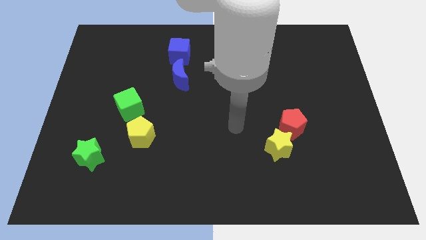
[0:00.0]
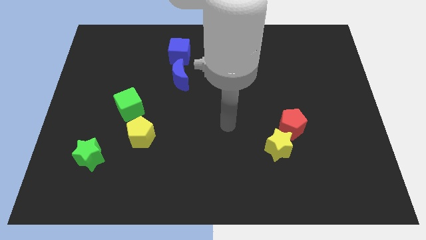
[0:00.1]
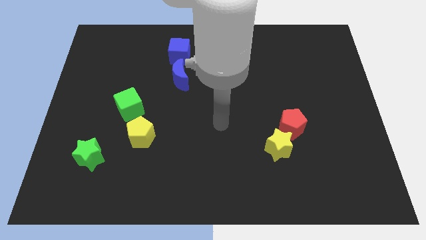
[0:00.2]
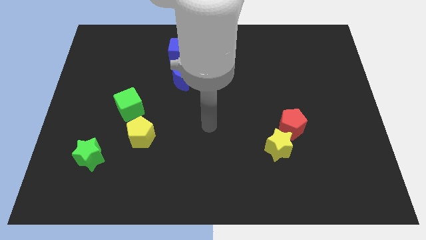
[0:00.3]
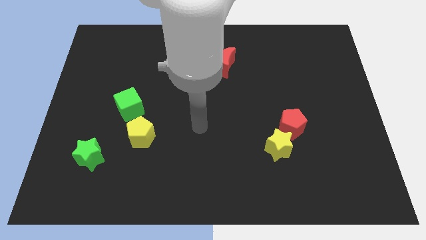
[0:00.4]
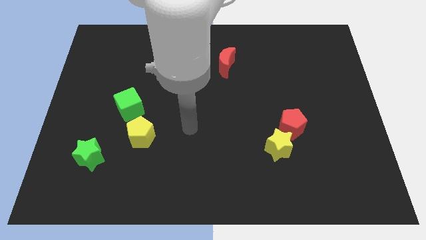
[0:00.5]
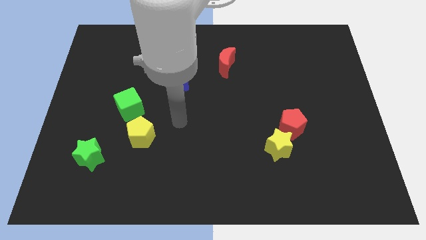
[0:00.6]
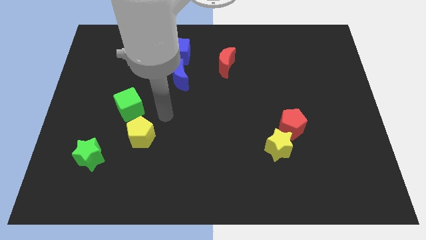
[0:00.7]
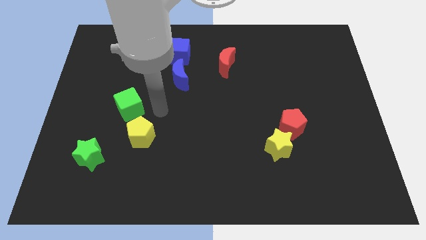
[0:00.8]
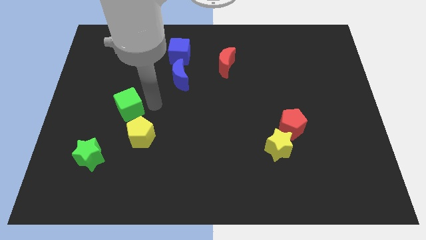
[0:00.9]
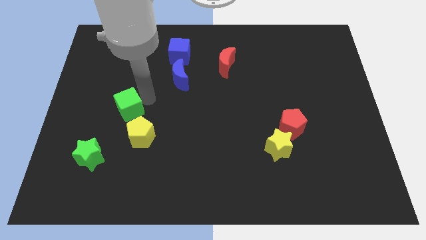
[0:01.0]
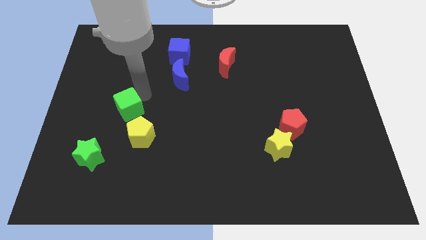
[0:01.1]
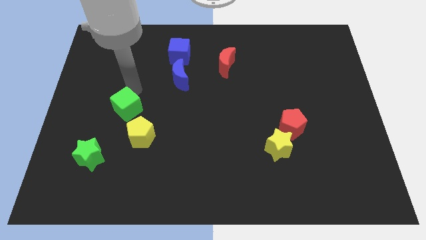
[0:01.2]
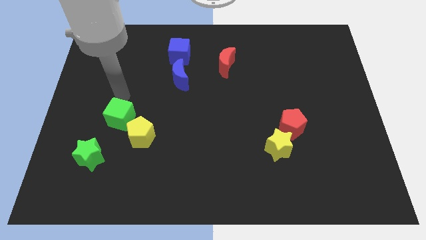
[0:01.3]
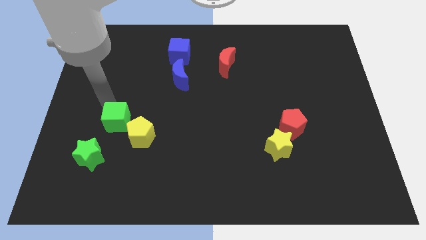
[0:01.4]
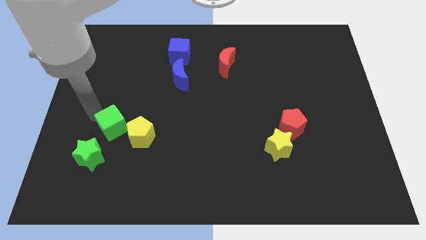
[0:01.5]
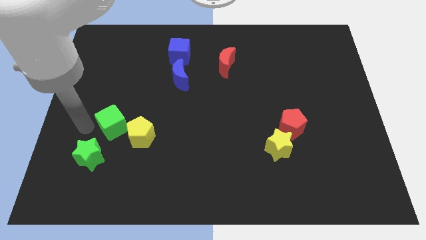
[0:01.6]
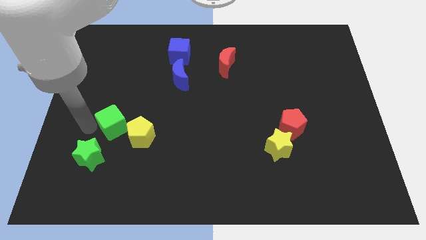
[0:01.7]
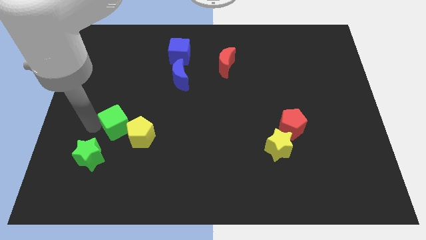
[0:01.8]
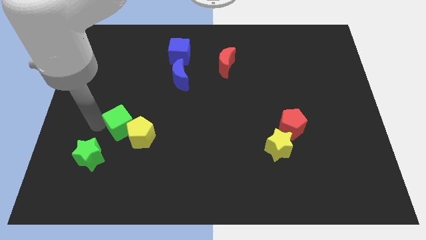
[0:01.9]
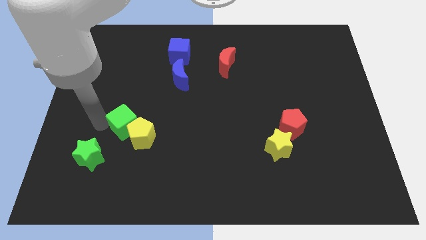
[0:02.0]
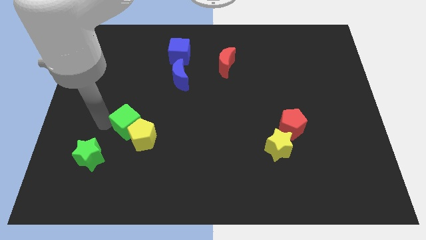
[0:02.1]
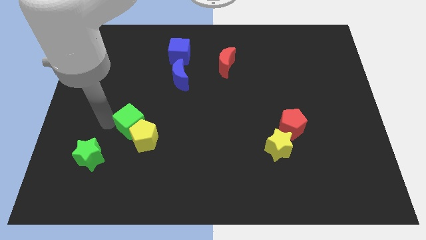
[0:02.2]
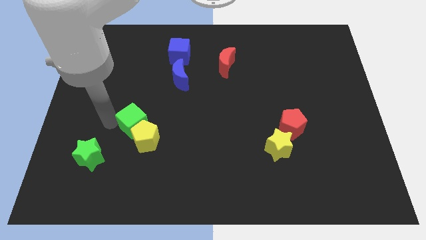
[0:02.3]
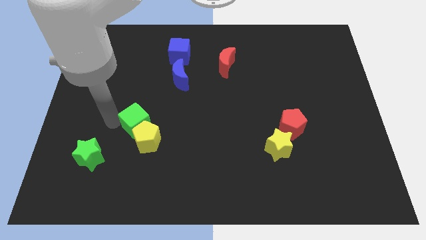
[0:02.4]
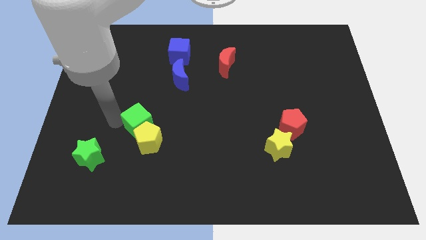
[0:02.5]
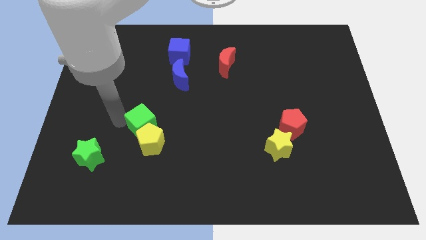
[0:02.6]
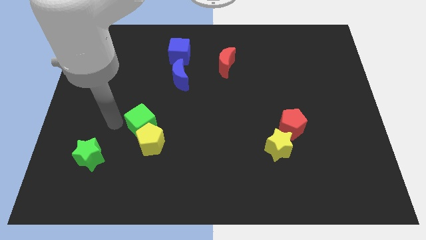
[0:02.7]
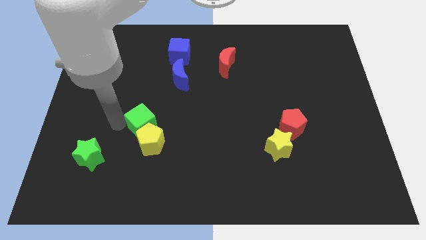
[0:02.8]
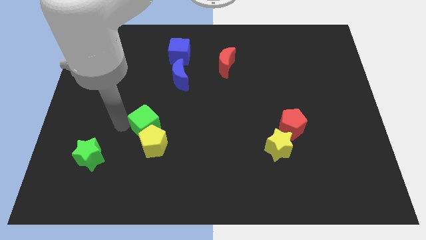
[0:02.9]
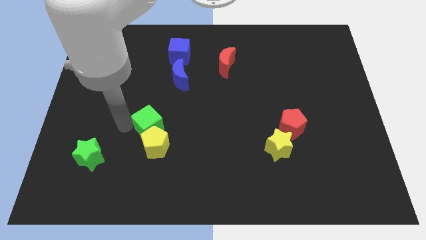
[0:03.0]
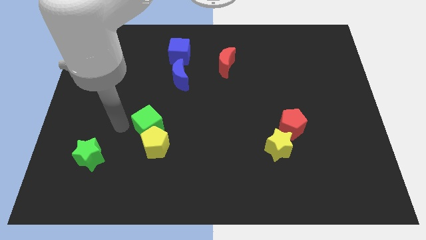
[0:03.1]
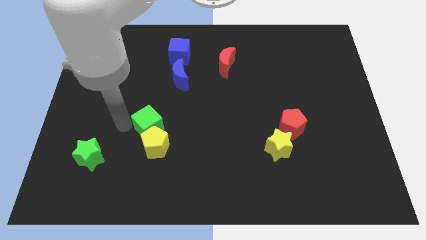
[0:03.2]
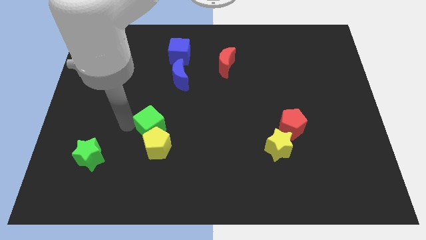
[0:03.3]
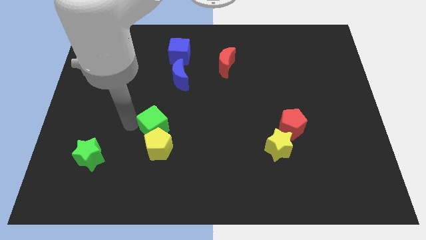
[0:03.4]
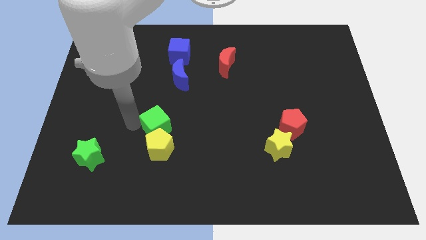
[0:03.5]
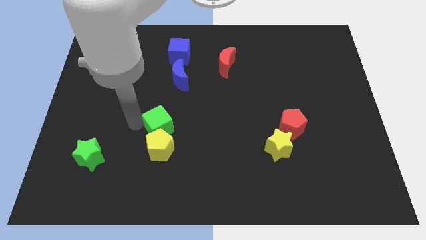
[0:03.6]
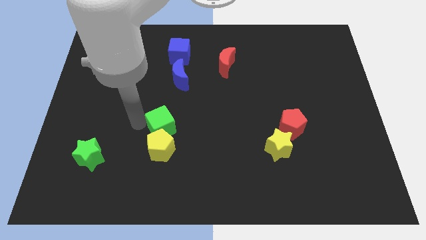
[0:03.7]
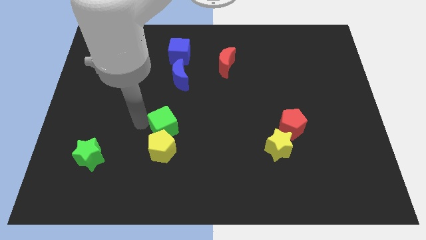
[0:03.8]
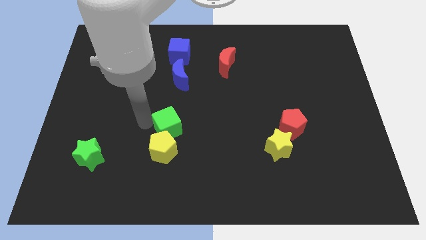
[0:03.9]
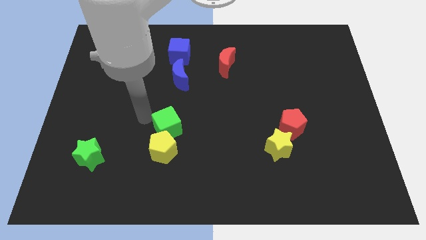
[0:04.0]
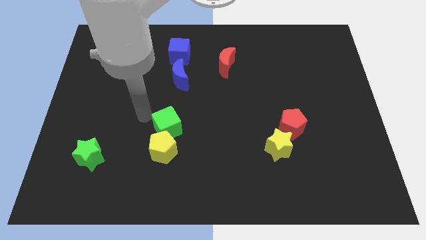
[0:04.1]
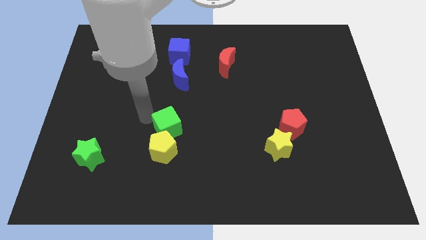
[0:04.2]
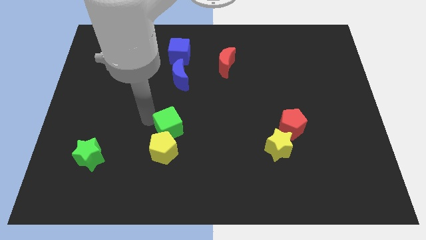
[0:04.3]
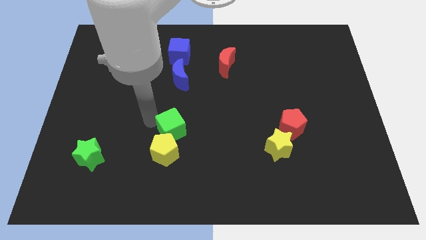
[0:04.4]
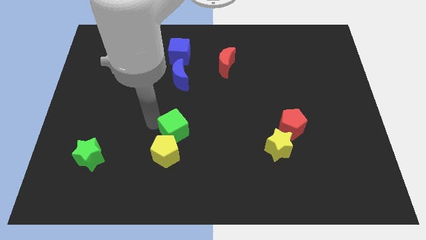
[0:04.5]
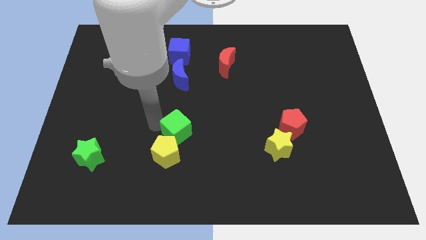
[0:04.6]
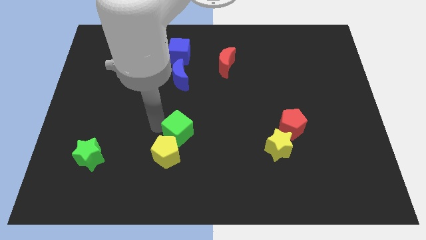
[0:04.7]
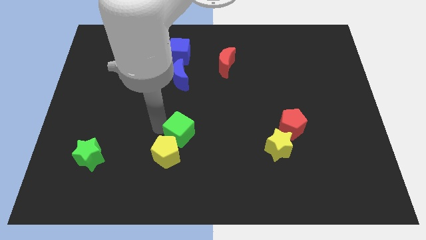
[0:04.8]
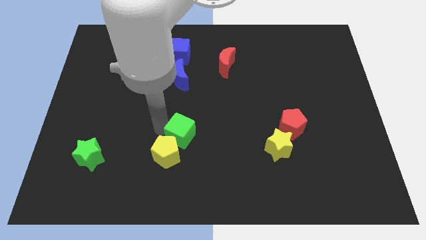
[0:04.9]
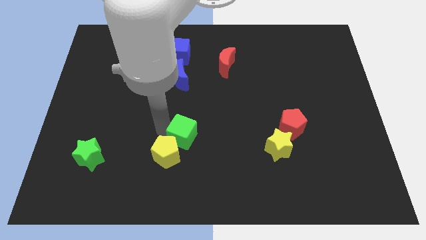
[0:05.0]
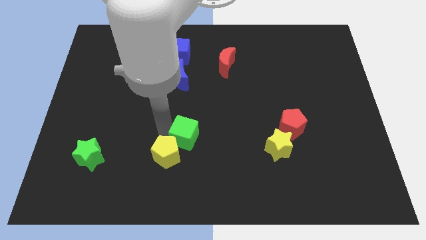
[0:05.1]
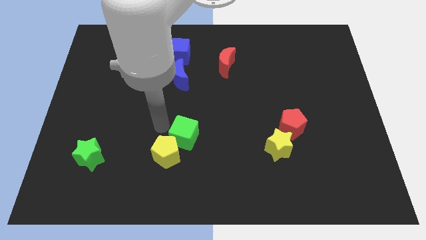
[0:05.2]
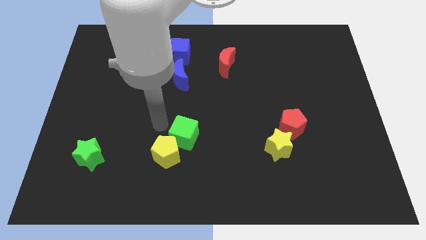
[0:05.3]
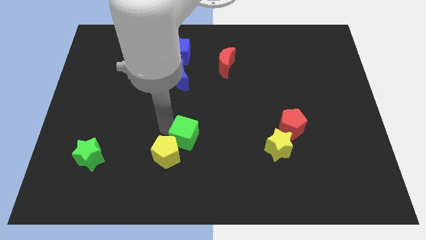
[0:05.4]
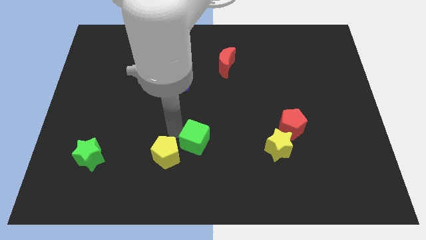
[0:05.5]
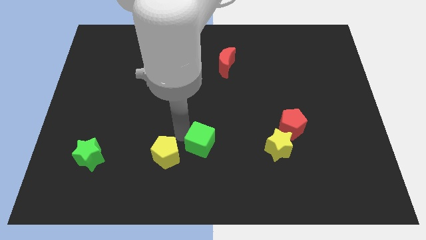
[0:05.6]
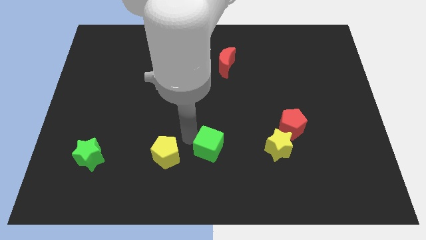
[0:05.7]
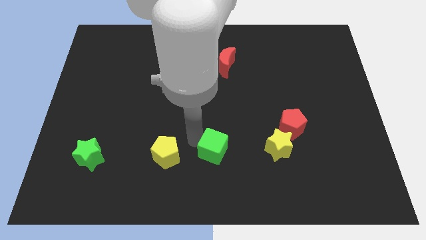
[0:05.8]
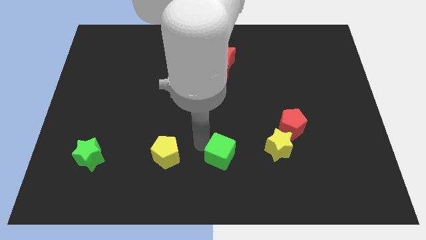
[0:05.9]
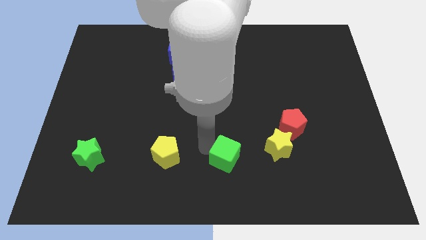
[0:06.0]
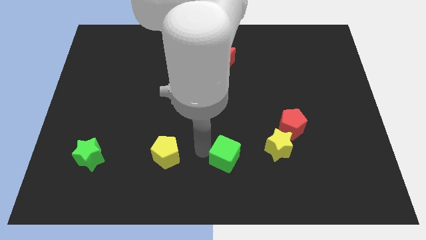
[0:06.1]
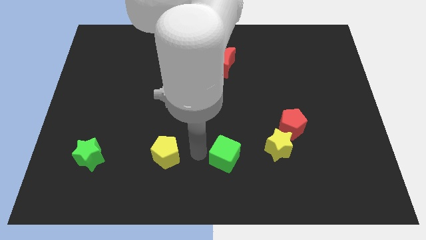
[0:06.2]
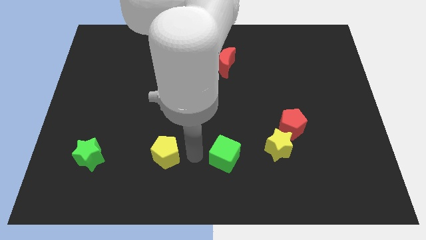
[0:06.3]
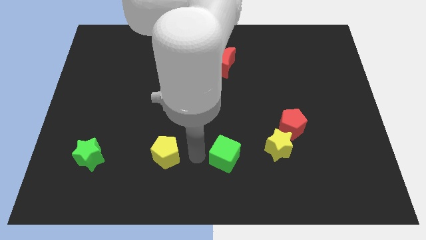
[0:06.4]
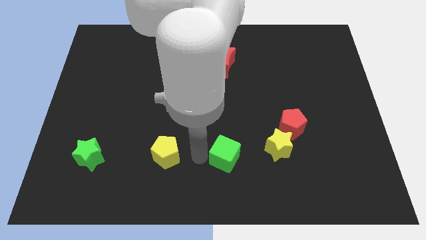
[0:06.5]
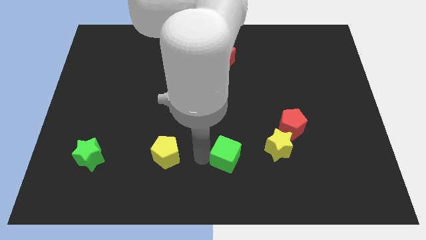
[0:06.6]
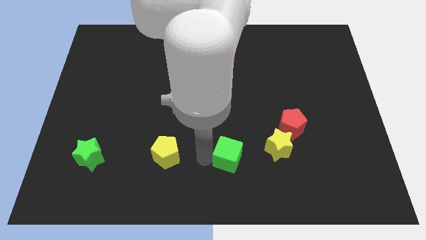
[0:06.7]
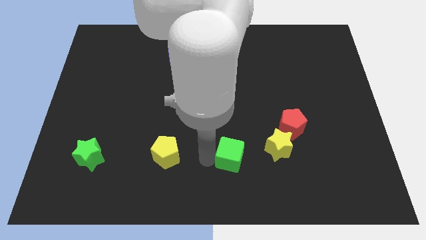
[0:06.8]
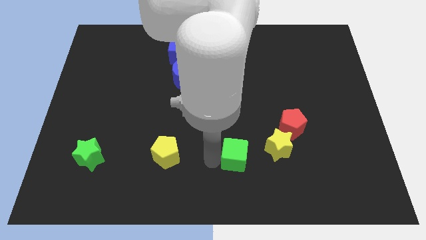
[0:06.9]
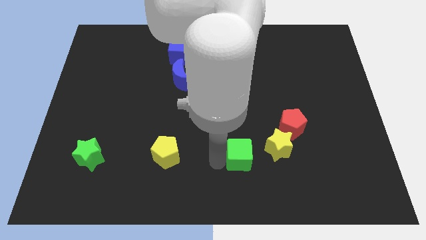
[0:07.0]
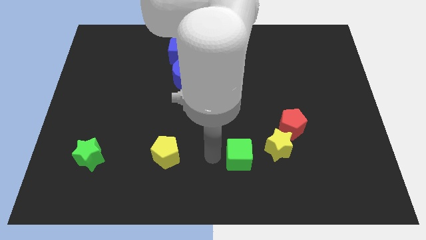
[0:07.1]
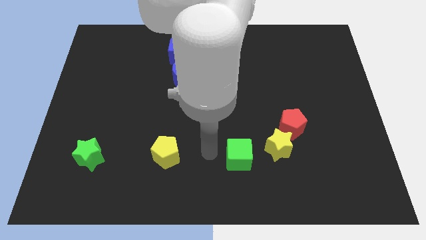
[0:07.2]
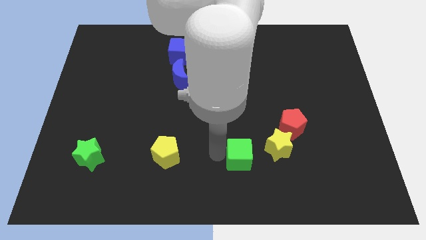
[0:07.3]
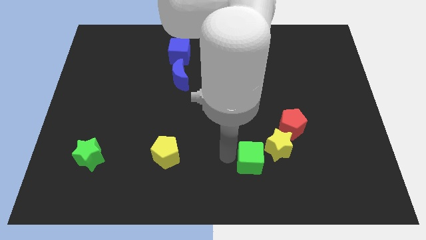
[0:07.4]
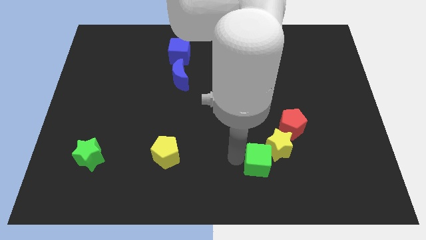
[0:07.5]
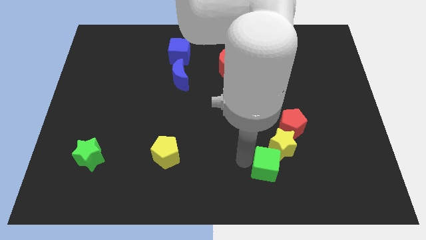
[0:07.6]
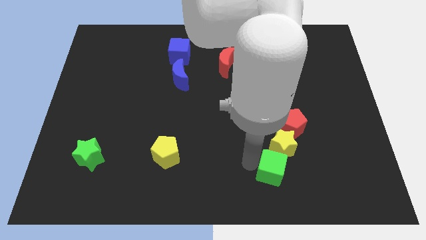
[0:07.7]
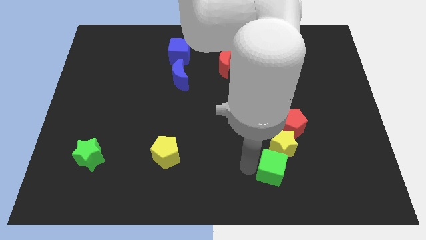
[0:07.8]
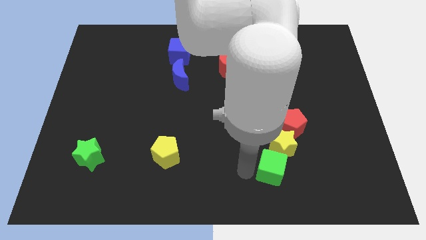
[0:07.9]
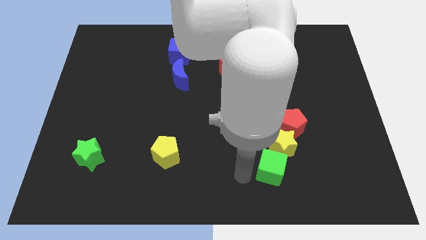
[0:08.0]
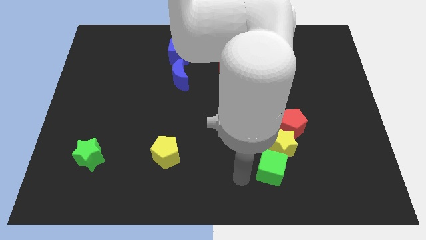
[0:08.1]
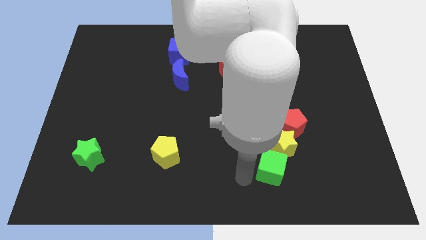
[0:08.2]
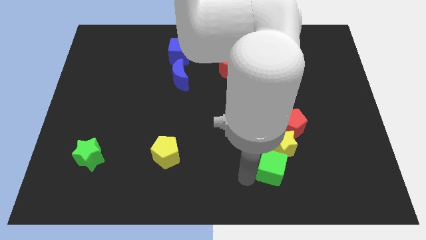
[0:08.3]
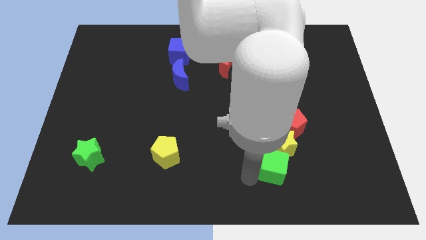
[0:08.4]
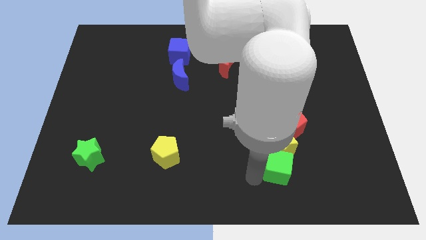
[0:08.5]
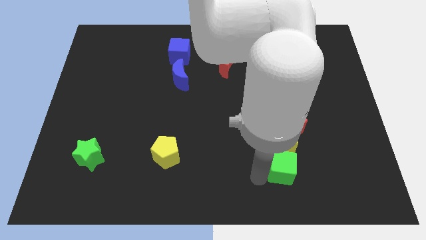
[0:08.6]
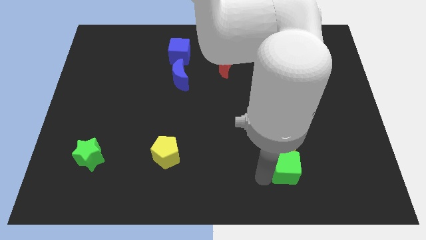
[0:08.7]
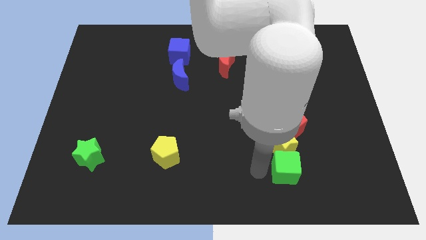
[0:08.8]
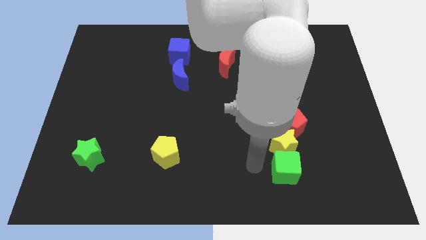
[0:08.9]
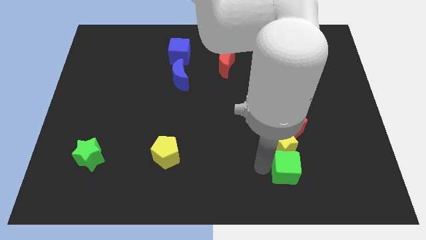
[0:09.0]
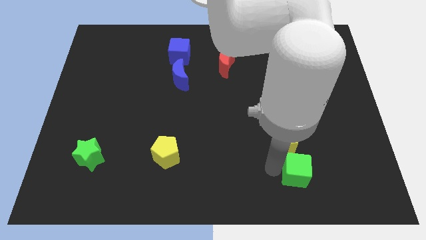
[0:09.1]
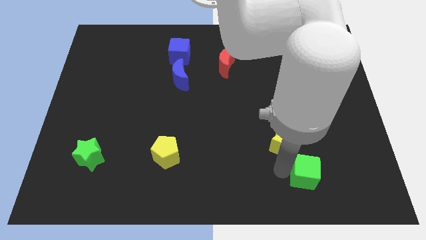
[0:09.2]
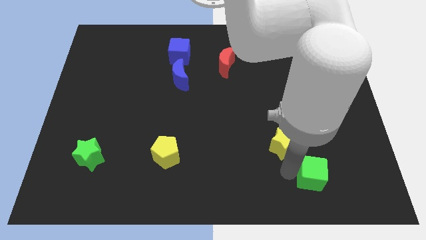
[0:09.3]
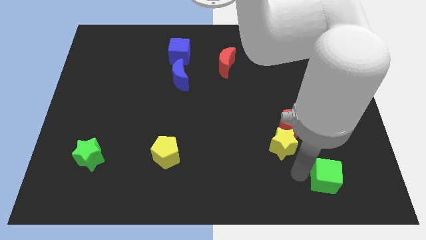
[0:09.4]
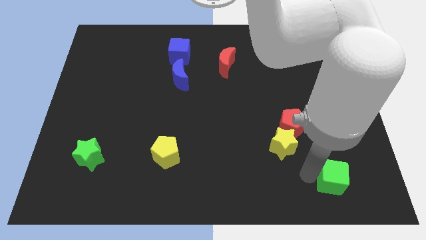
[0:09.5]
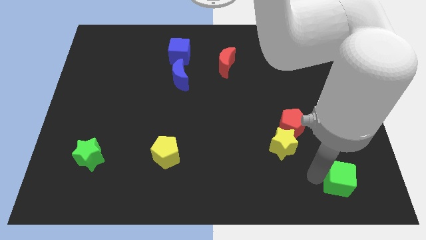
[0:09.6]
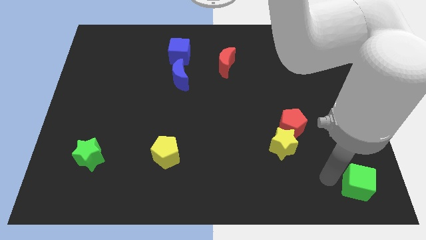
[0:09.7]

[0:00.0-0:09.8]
slide the green cube to the bottom right of the board
